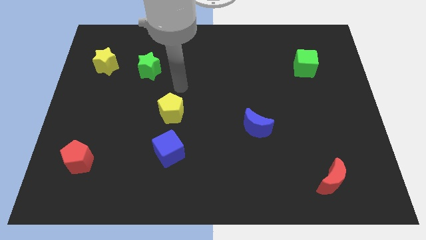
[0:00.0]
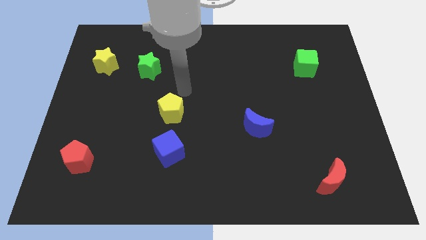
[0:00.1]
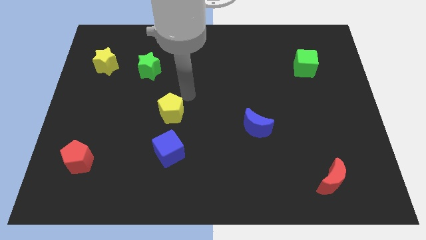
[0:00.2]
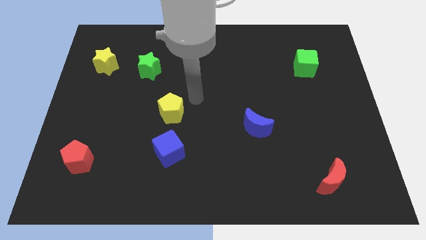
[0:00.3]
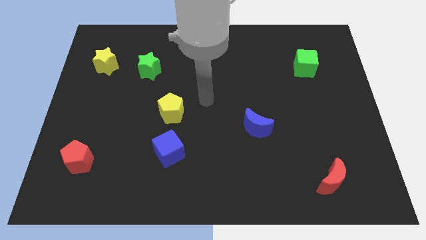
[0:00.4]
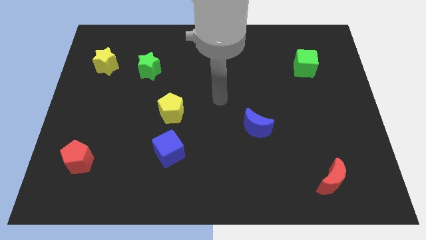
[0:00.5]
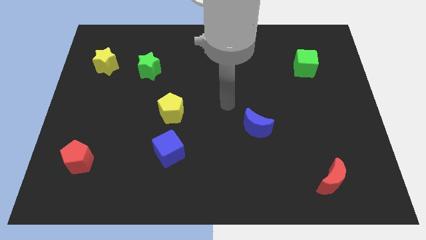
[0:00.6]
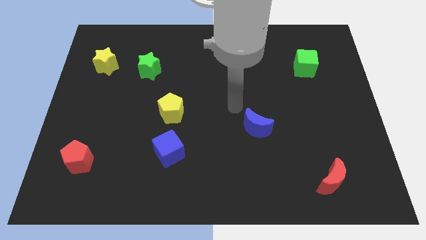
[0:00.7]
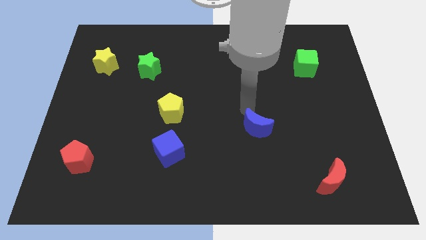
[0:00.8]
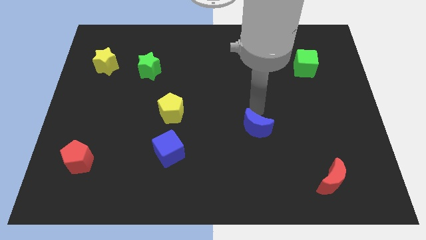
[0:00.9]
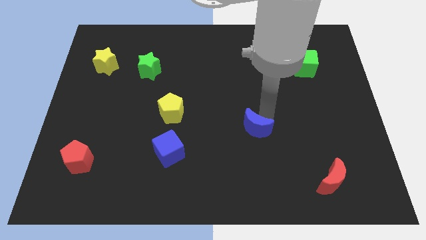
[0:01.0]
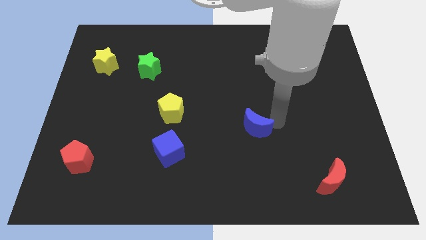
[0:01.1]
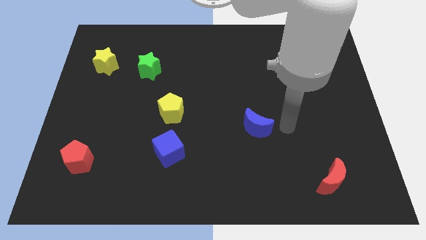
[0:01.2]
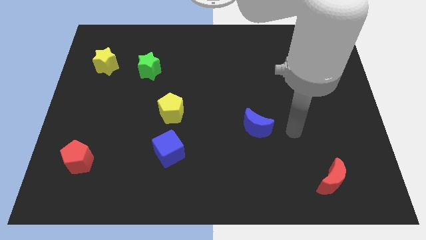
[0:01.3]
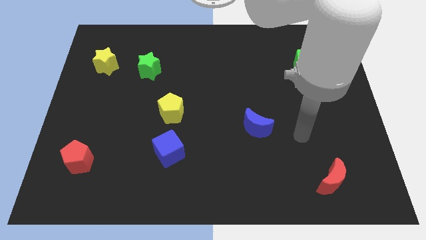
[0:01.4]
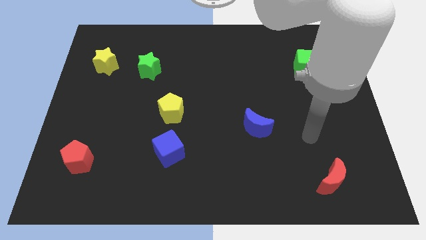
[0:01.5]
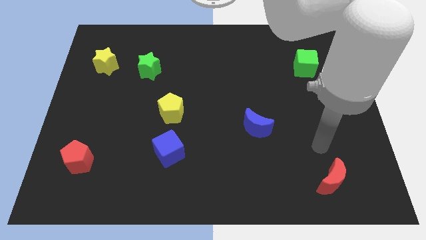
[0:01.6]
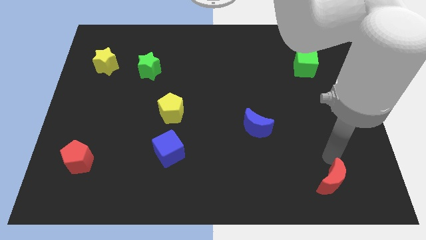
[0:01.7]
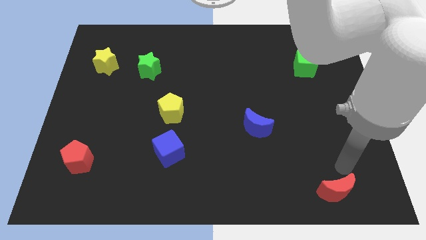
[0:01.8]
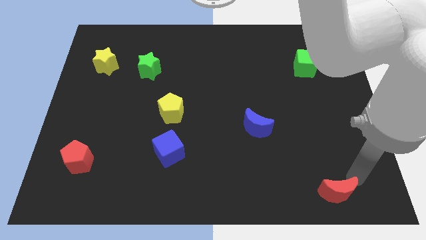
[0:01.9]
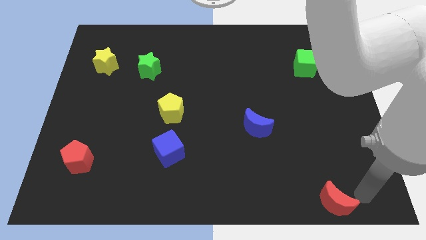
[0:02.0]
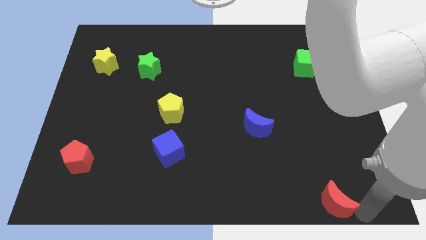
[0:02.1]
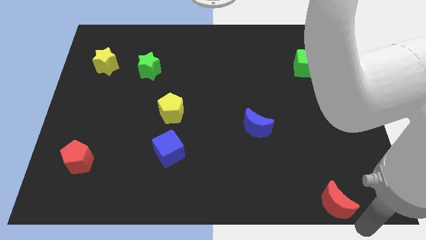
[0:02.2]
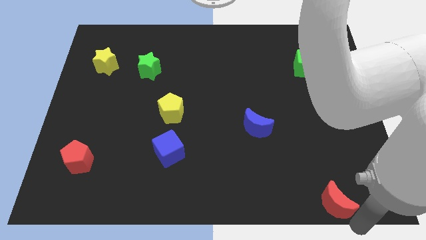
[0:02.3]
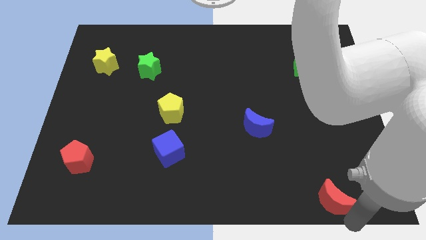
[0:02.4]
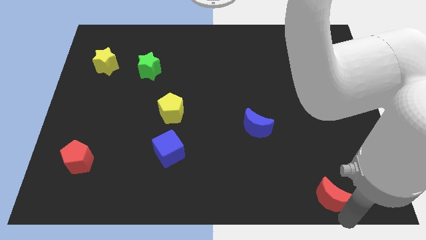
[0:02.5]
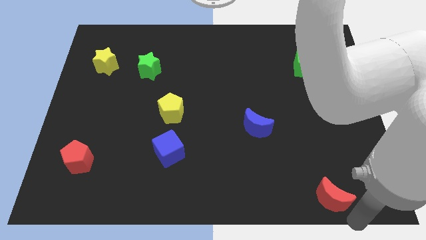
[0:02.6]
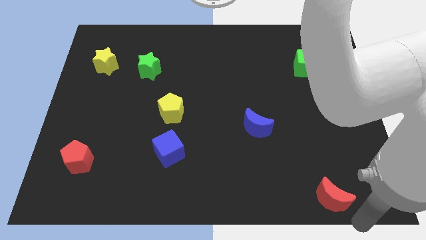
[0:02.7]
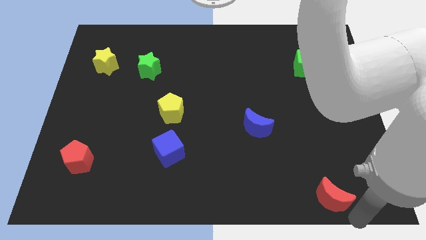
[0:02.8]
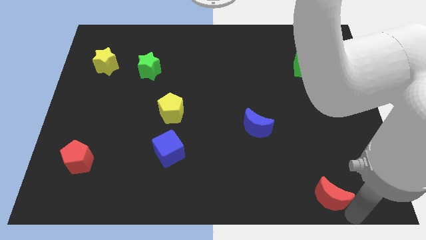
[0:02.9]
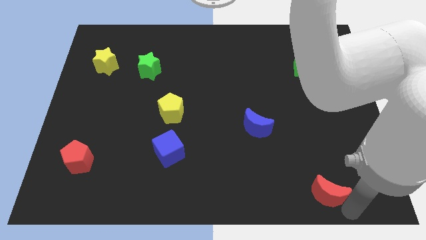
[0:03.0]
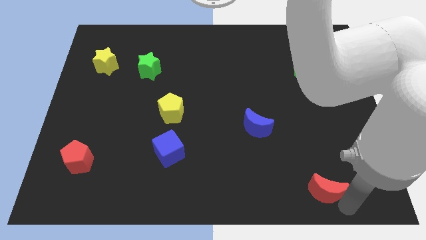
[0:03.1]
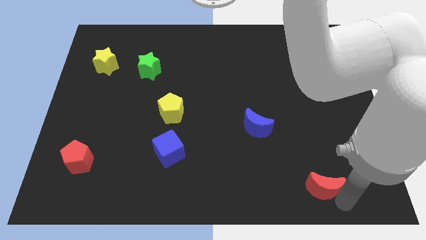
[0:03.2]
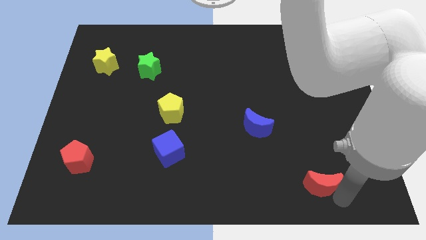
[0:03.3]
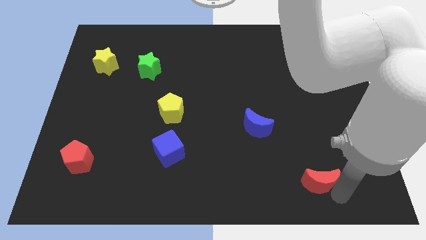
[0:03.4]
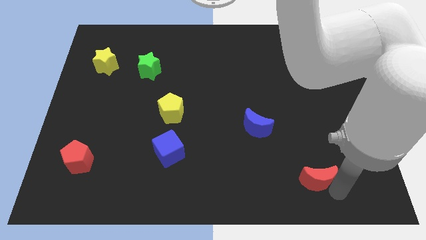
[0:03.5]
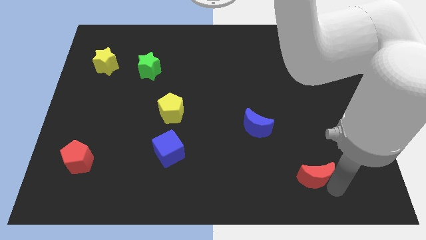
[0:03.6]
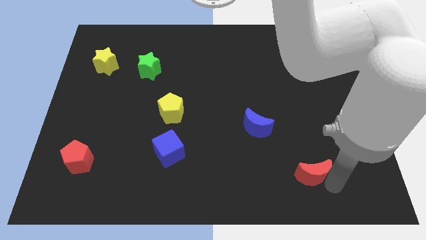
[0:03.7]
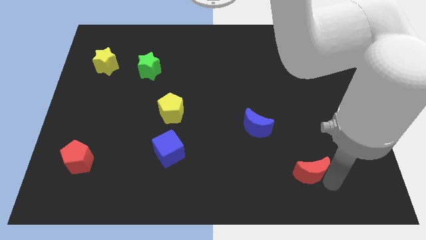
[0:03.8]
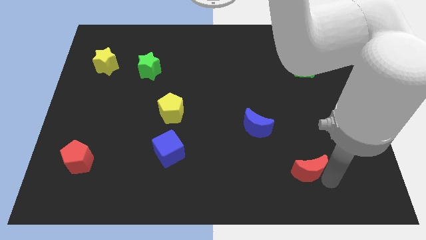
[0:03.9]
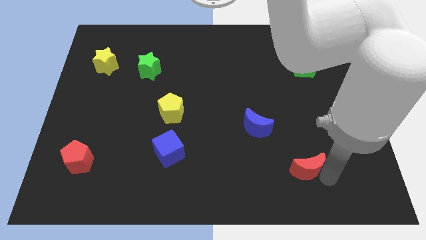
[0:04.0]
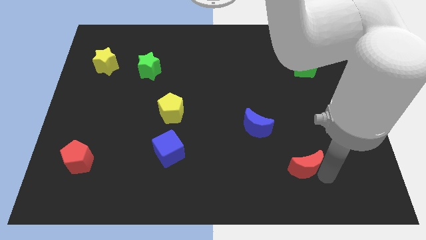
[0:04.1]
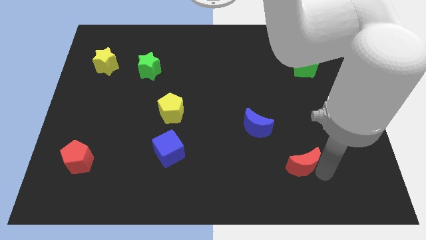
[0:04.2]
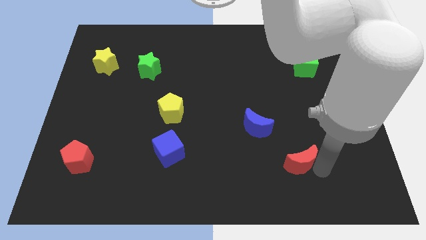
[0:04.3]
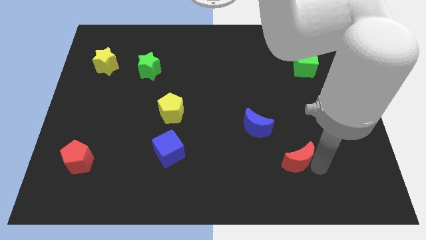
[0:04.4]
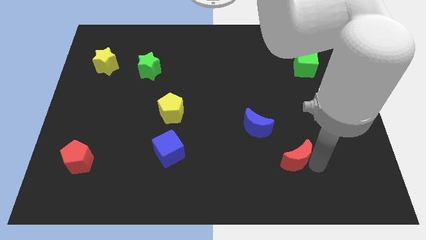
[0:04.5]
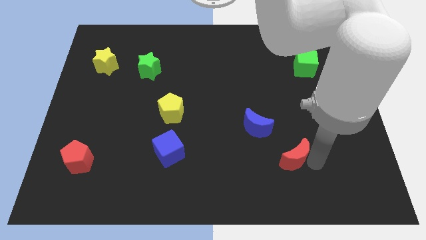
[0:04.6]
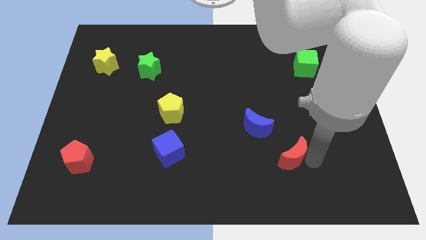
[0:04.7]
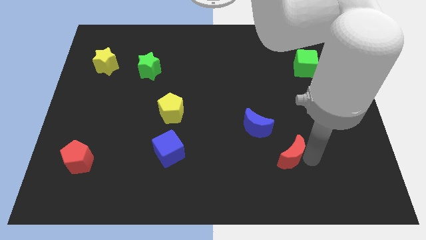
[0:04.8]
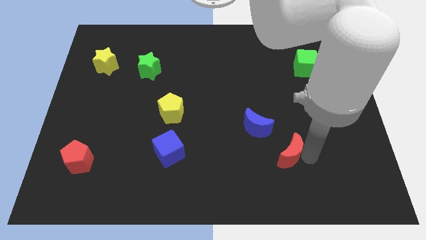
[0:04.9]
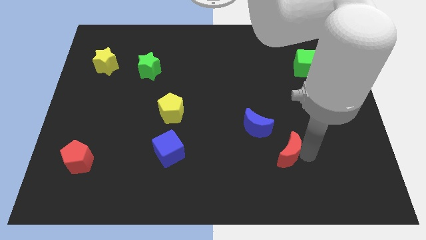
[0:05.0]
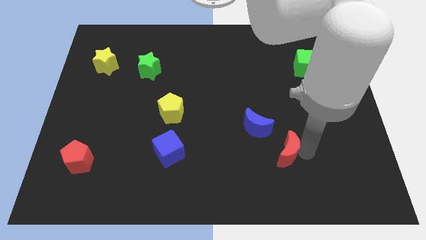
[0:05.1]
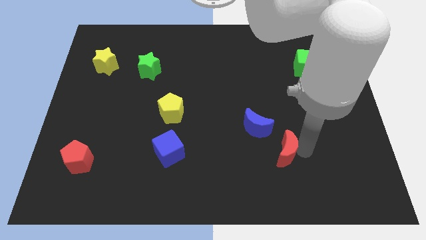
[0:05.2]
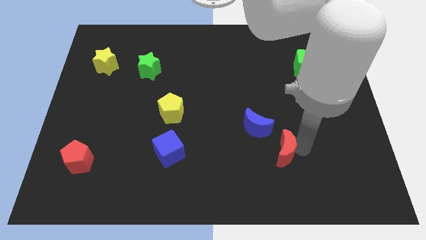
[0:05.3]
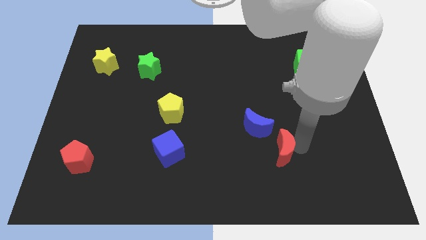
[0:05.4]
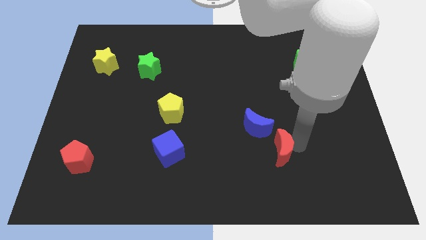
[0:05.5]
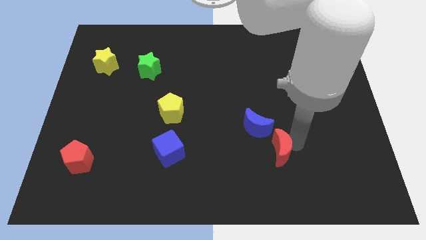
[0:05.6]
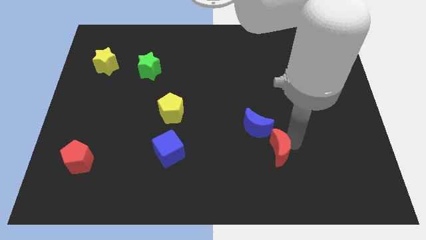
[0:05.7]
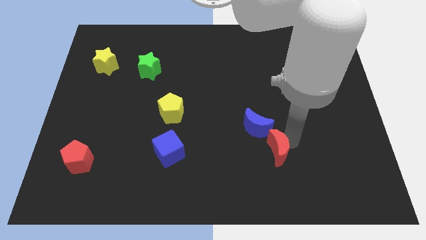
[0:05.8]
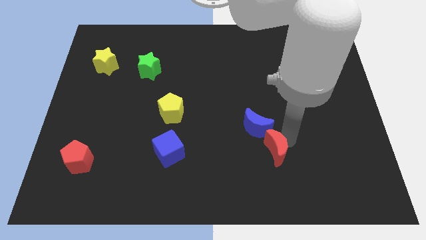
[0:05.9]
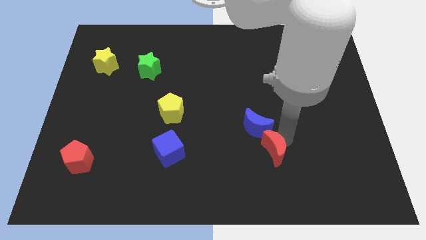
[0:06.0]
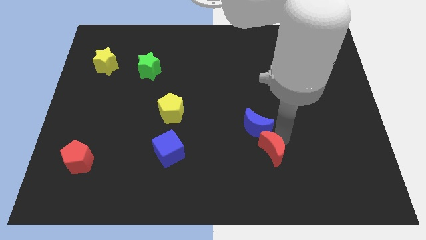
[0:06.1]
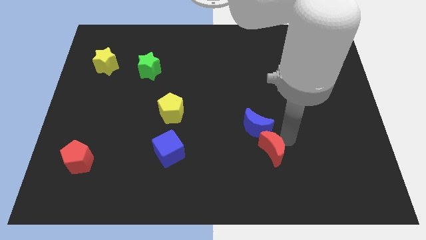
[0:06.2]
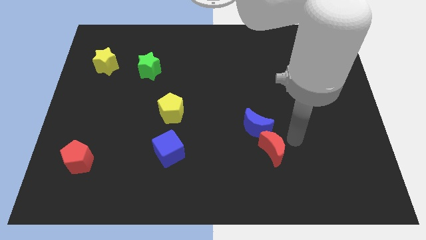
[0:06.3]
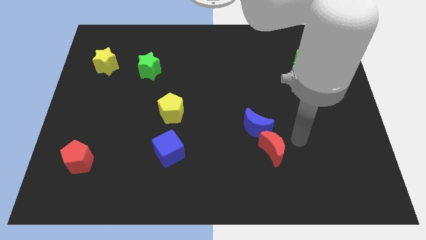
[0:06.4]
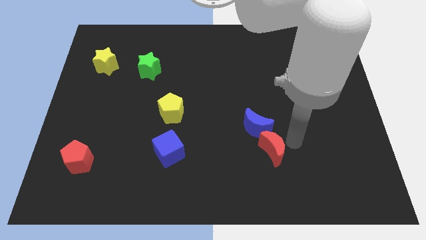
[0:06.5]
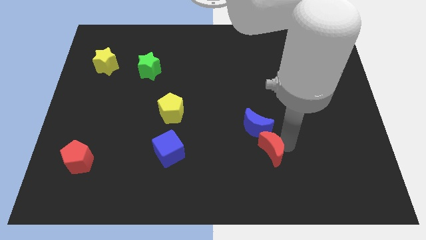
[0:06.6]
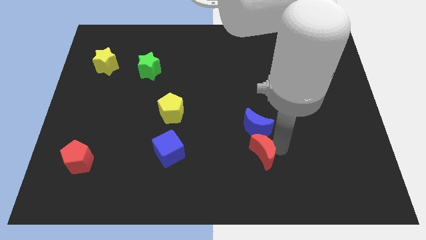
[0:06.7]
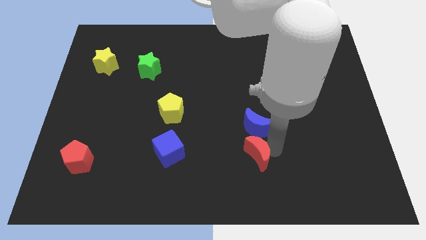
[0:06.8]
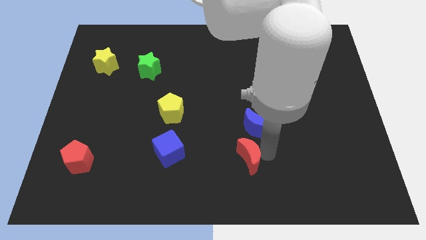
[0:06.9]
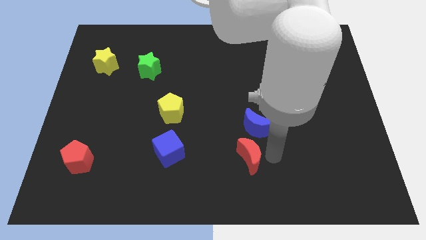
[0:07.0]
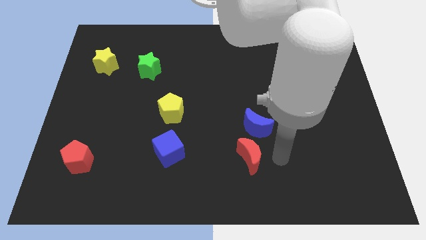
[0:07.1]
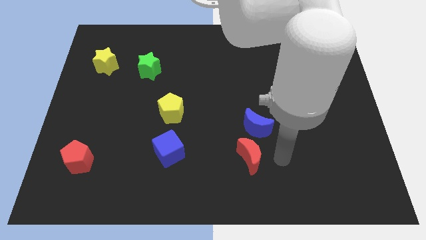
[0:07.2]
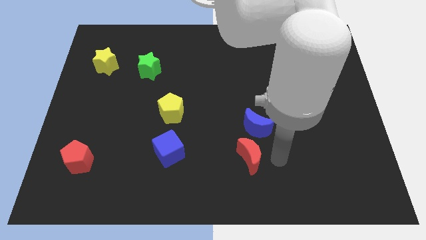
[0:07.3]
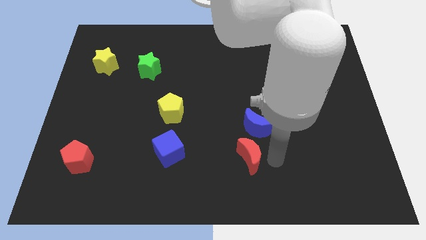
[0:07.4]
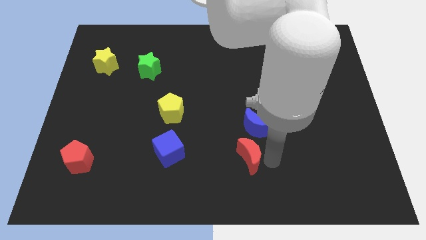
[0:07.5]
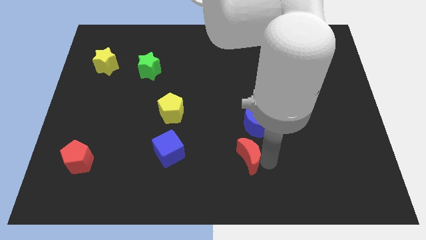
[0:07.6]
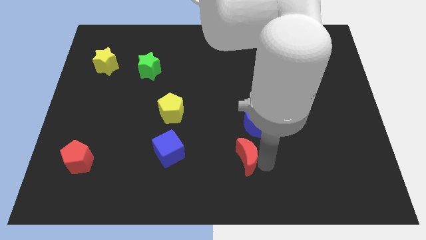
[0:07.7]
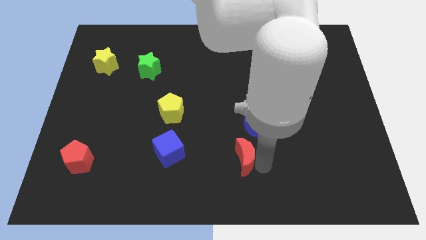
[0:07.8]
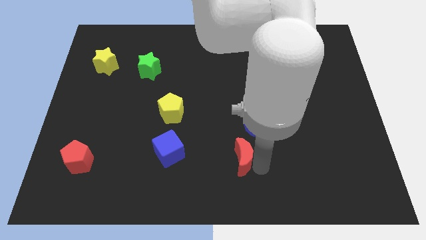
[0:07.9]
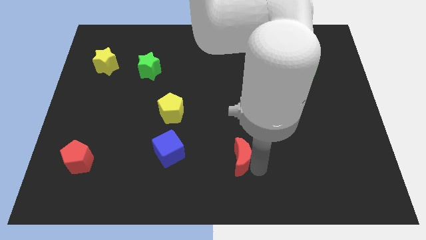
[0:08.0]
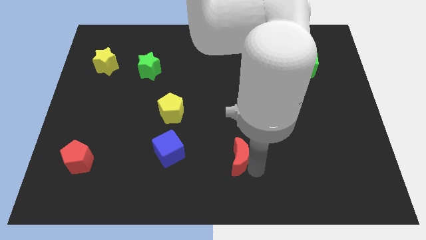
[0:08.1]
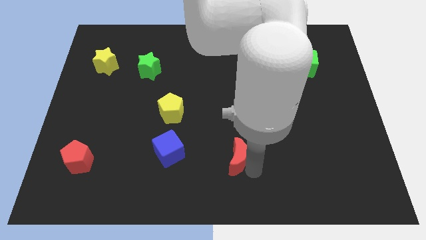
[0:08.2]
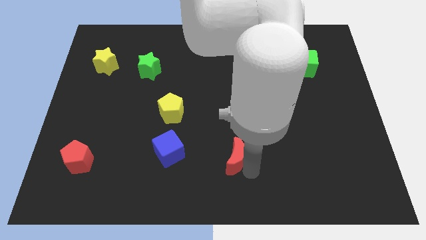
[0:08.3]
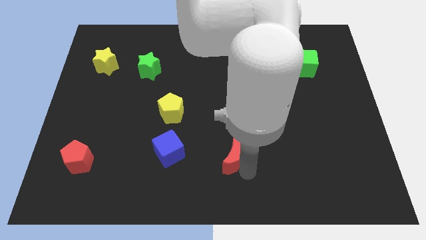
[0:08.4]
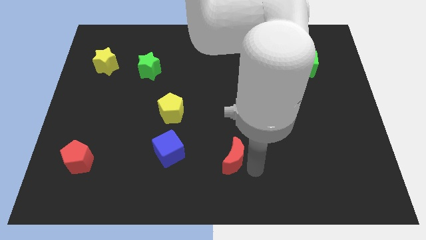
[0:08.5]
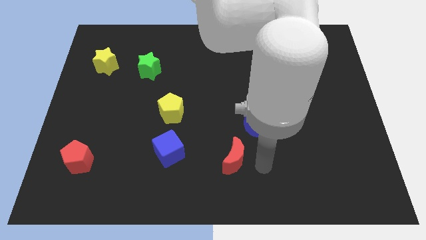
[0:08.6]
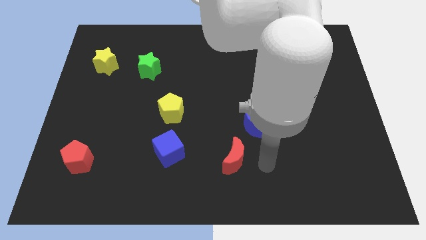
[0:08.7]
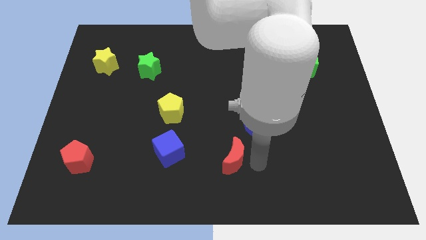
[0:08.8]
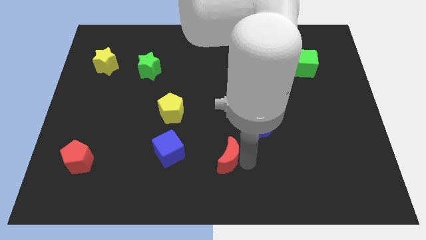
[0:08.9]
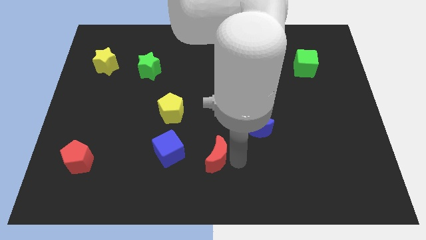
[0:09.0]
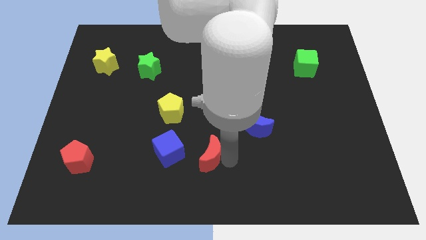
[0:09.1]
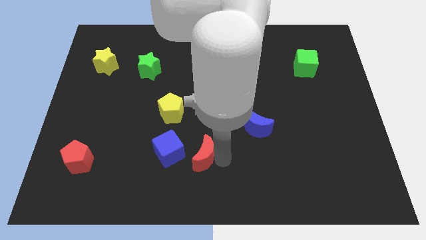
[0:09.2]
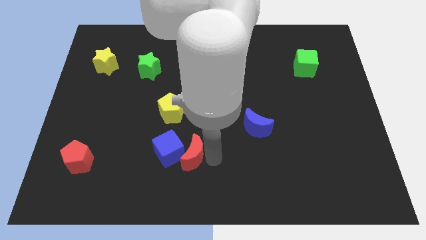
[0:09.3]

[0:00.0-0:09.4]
slide the red moon to the blue cube
